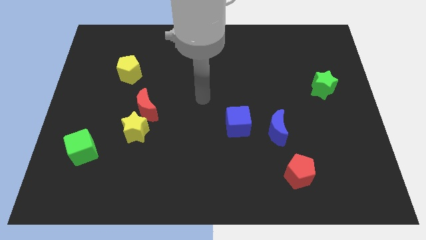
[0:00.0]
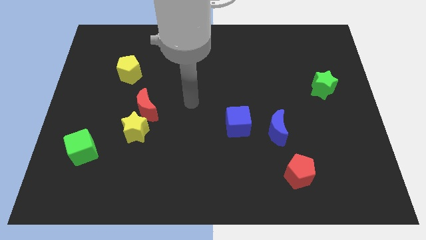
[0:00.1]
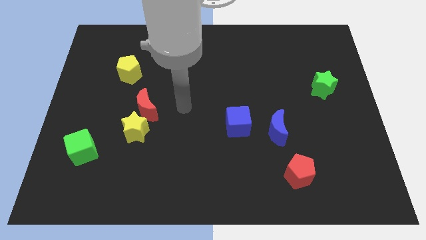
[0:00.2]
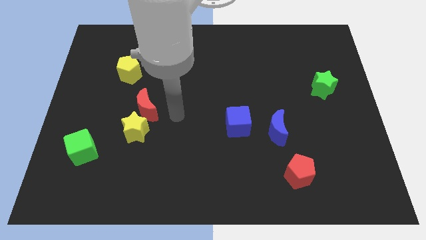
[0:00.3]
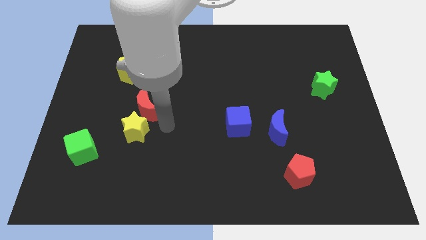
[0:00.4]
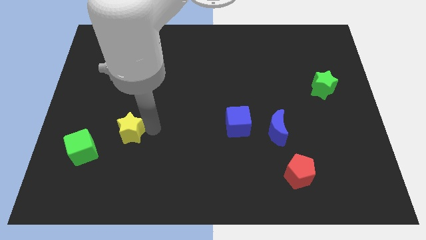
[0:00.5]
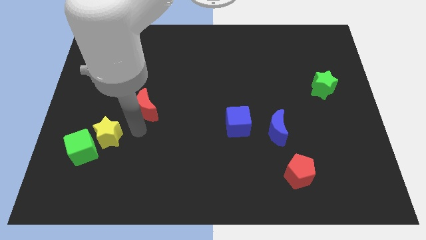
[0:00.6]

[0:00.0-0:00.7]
pull the red moon apart from the yellow star

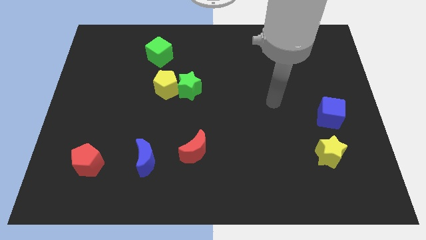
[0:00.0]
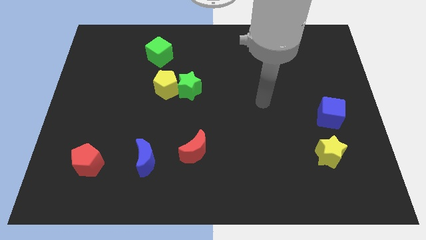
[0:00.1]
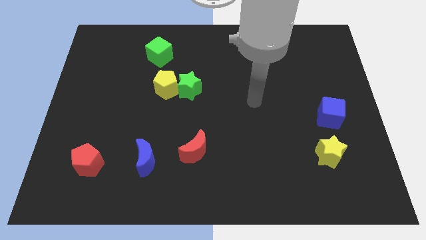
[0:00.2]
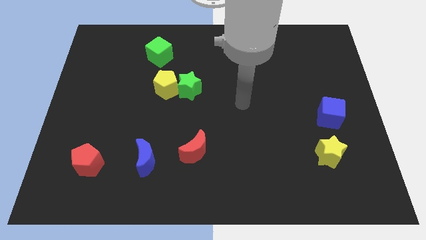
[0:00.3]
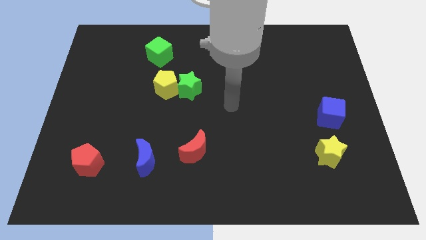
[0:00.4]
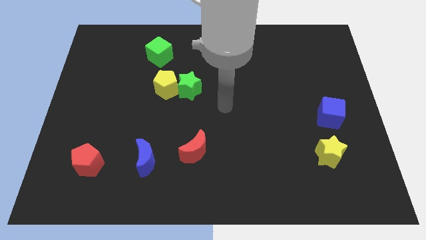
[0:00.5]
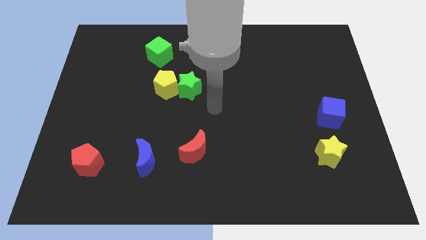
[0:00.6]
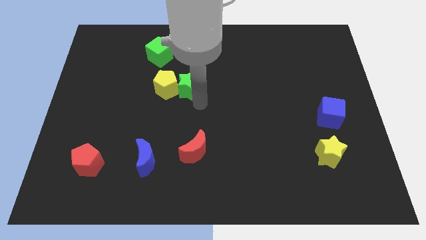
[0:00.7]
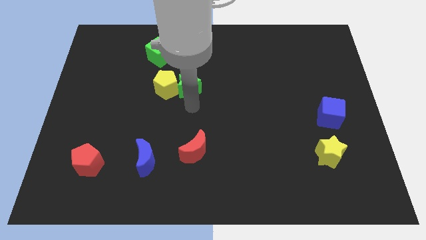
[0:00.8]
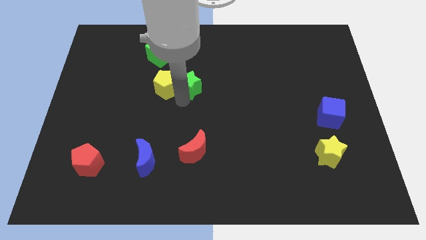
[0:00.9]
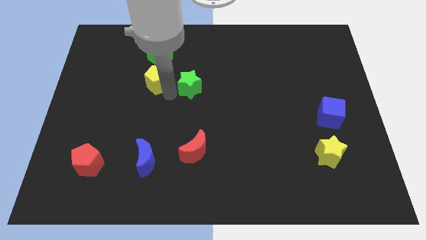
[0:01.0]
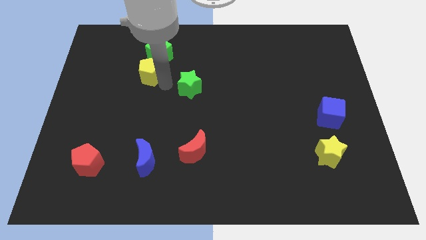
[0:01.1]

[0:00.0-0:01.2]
move the green star away from the yellow pentagon

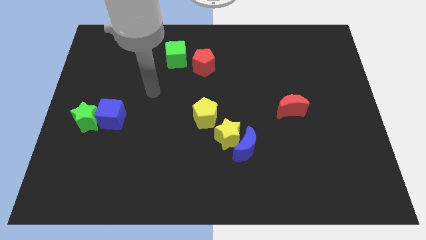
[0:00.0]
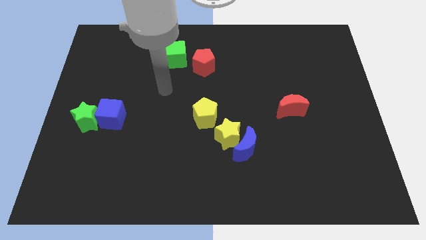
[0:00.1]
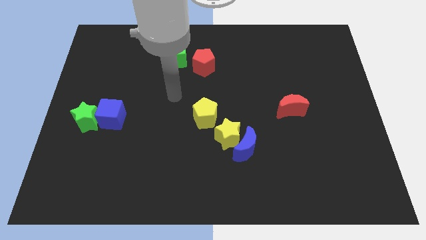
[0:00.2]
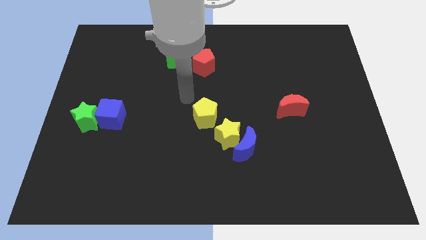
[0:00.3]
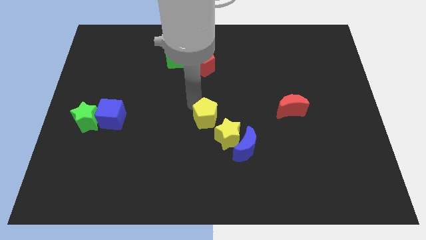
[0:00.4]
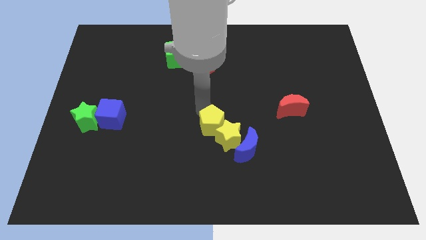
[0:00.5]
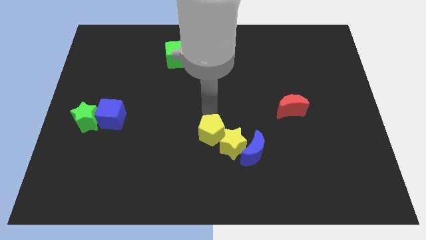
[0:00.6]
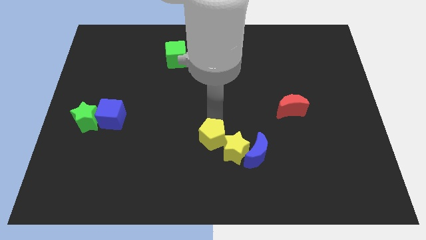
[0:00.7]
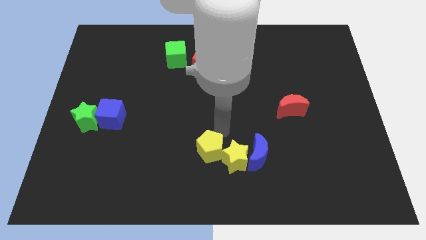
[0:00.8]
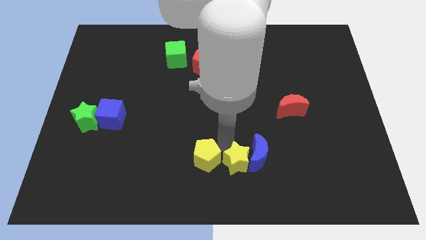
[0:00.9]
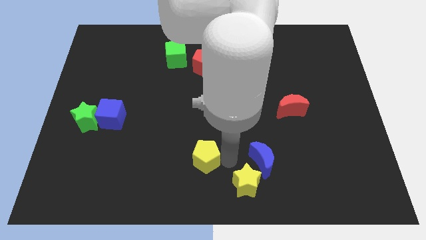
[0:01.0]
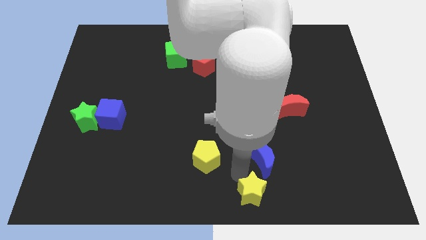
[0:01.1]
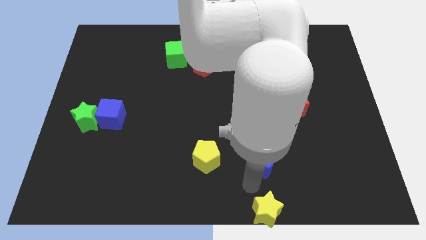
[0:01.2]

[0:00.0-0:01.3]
move the blue moon away from the yellow star

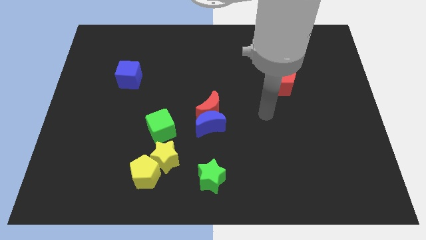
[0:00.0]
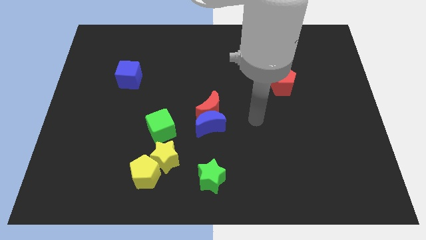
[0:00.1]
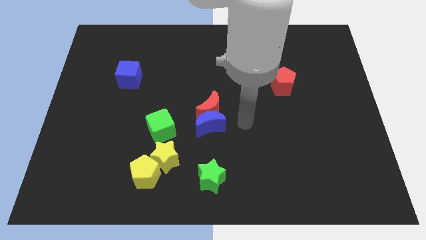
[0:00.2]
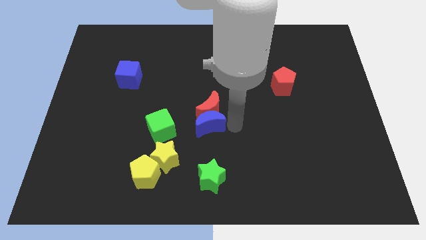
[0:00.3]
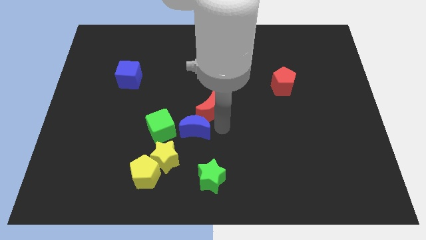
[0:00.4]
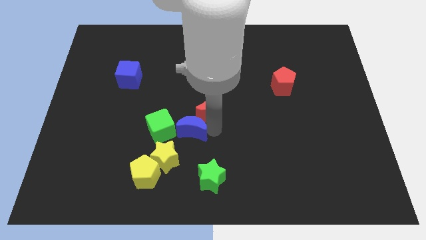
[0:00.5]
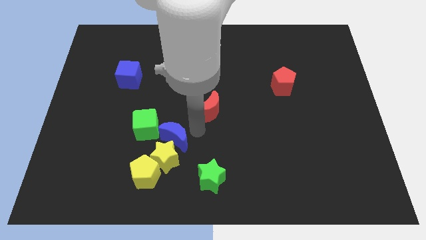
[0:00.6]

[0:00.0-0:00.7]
move the red moon away from the blue moon

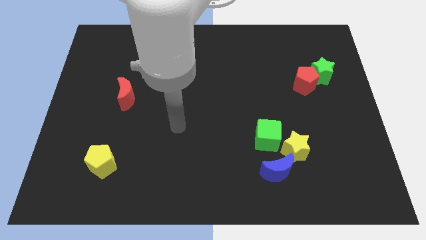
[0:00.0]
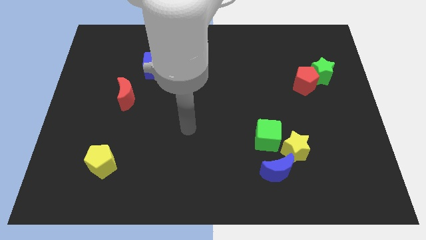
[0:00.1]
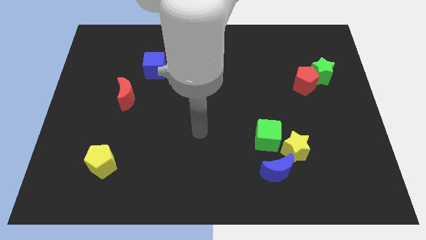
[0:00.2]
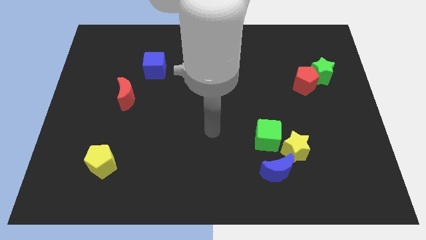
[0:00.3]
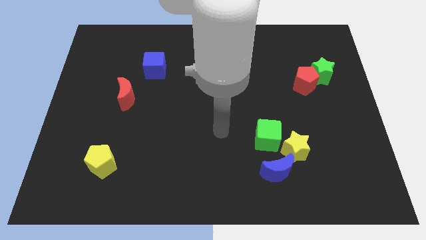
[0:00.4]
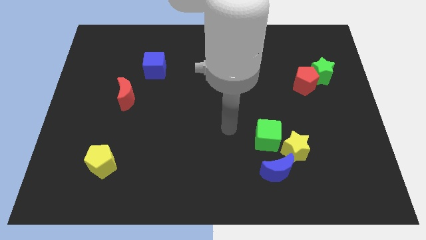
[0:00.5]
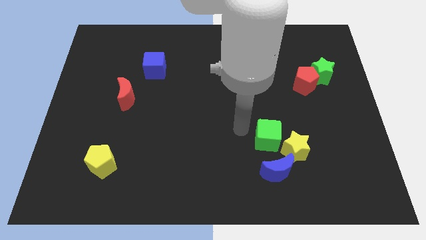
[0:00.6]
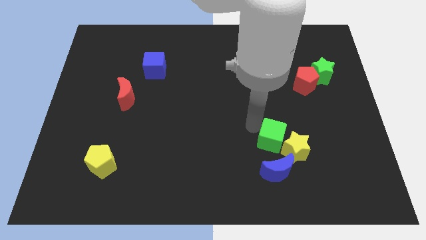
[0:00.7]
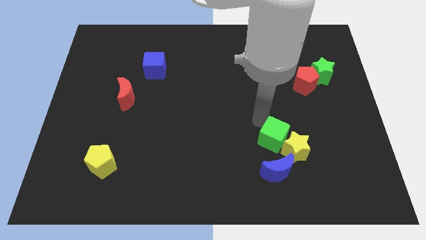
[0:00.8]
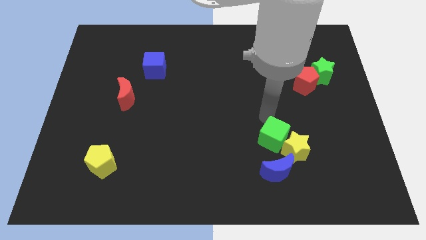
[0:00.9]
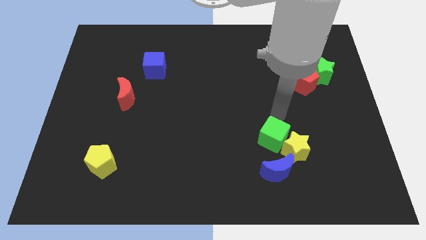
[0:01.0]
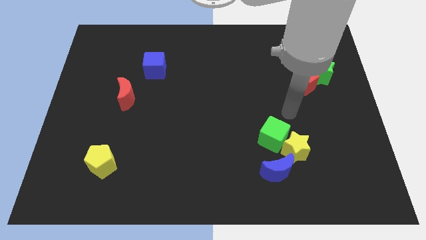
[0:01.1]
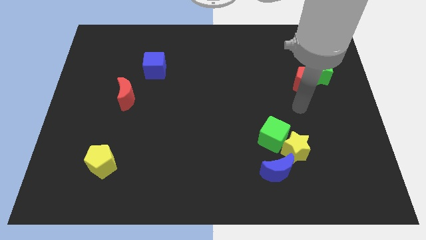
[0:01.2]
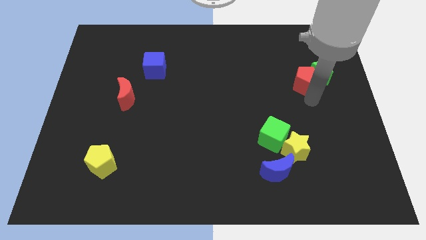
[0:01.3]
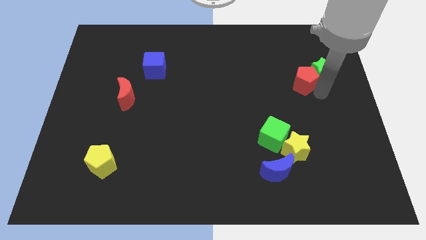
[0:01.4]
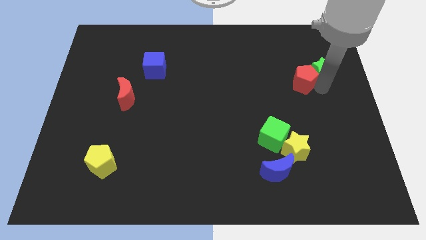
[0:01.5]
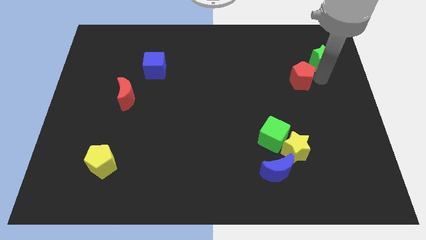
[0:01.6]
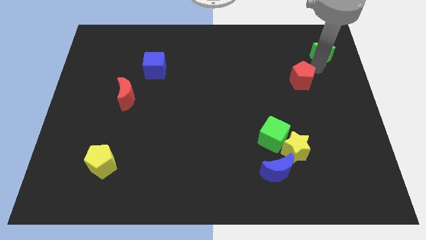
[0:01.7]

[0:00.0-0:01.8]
move the red pentagon away from the green star

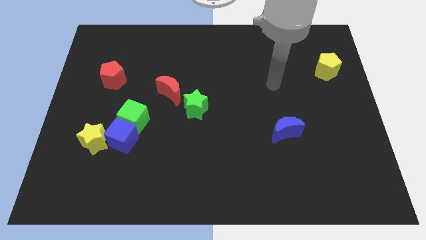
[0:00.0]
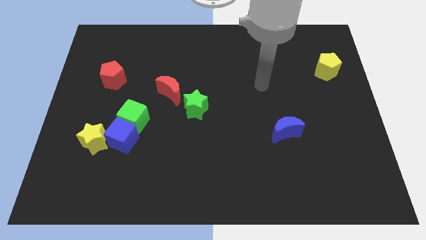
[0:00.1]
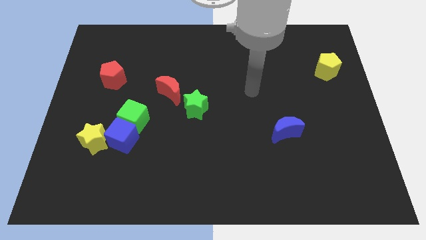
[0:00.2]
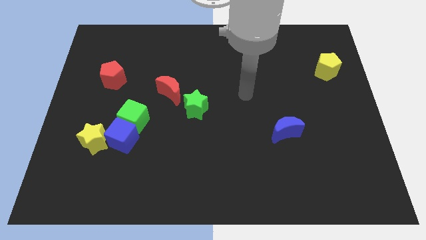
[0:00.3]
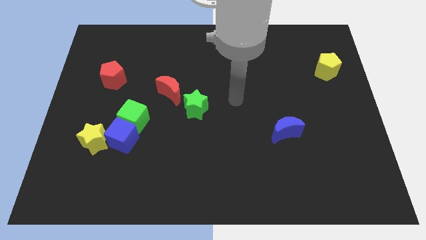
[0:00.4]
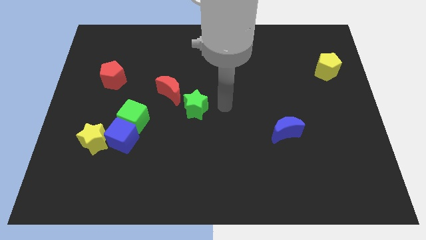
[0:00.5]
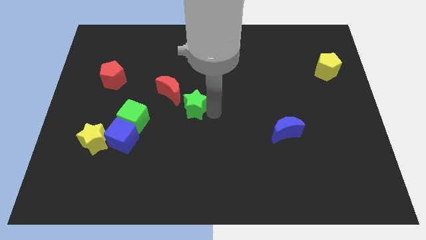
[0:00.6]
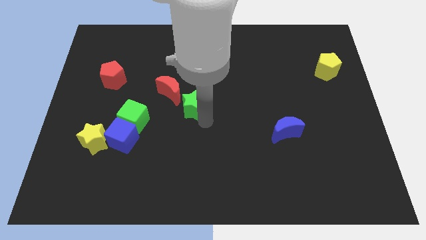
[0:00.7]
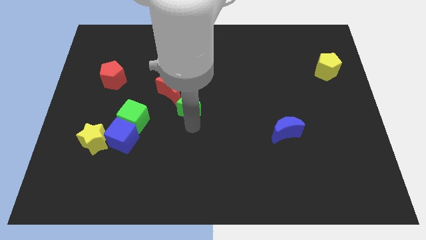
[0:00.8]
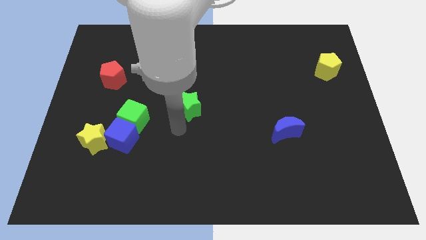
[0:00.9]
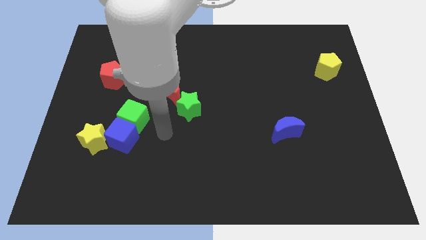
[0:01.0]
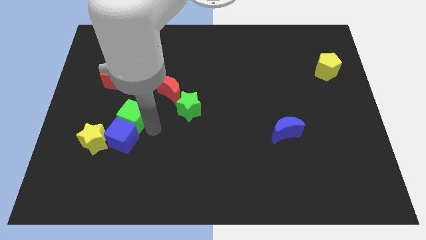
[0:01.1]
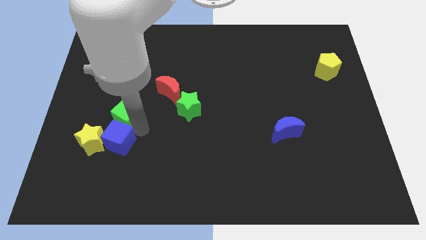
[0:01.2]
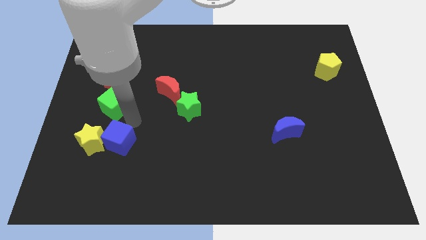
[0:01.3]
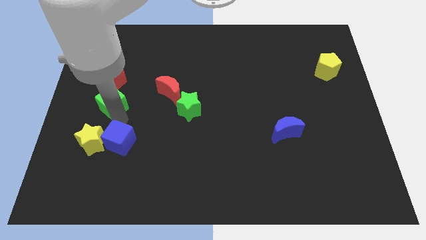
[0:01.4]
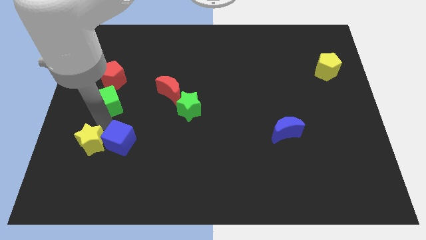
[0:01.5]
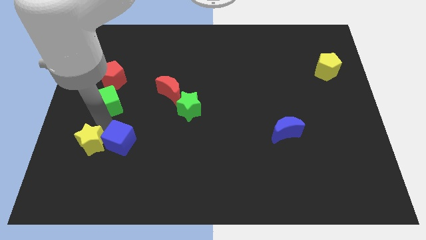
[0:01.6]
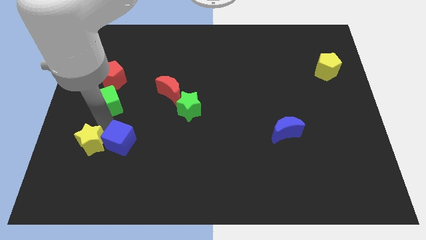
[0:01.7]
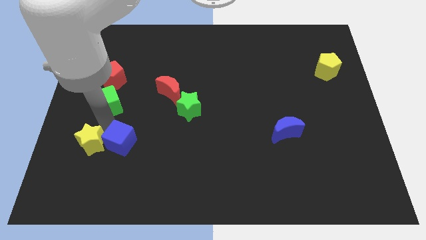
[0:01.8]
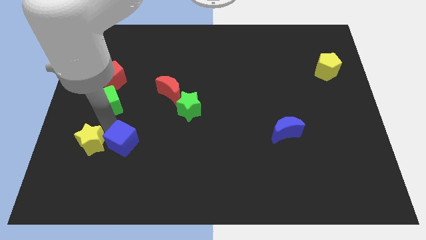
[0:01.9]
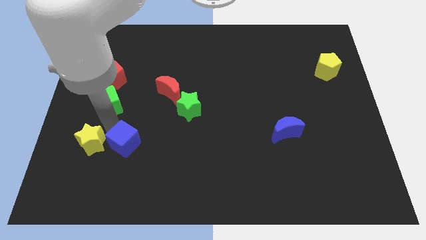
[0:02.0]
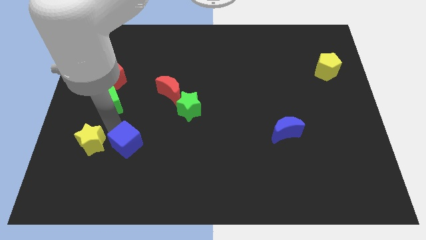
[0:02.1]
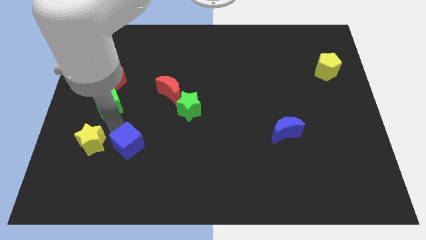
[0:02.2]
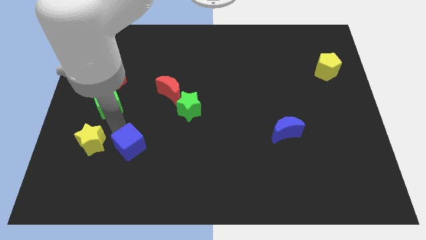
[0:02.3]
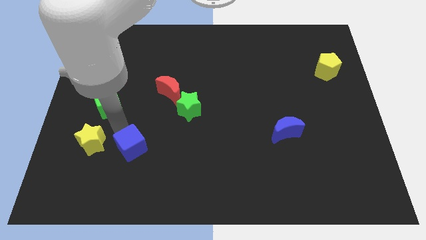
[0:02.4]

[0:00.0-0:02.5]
separate the blue cube from the green cube and yellow star

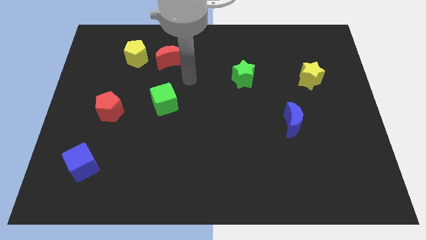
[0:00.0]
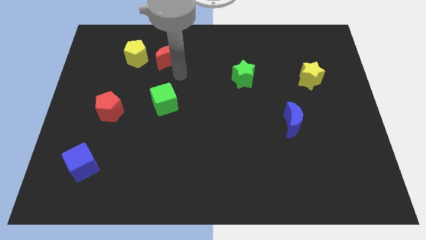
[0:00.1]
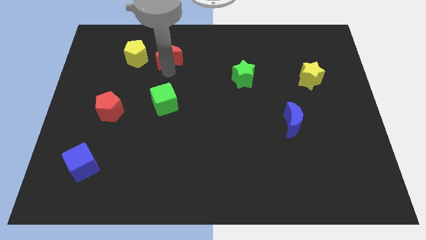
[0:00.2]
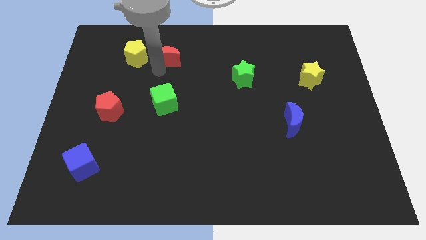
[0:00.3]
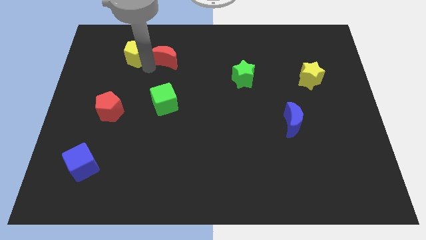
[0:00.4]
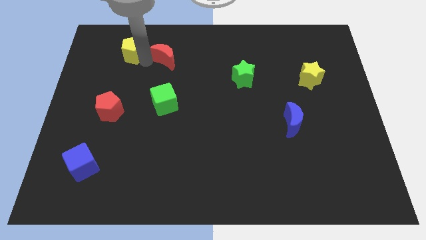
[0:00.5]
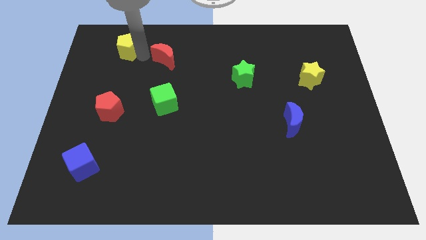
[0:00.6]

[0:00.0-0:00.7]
move the red moon away from the yellow pentagon

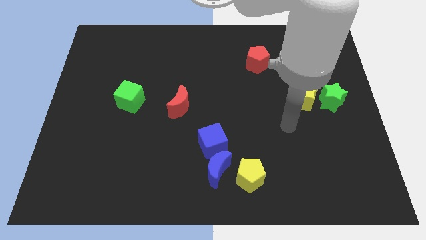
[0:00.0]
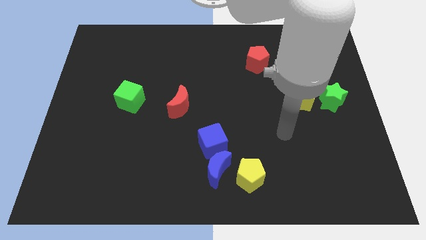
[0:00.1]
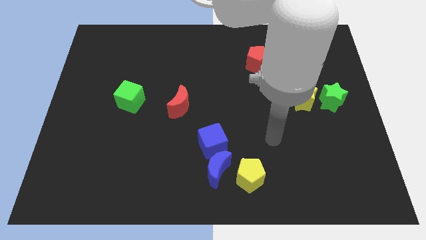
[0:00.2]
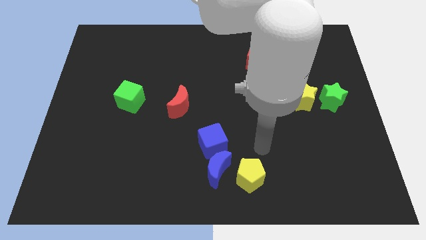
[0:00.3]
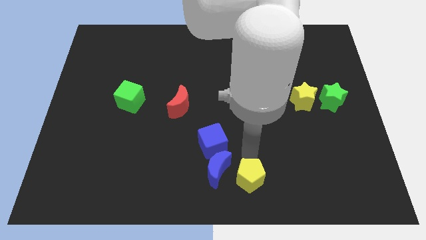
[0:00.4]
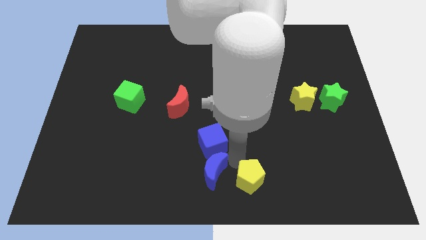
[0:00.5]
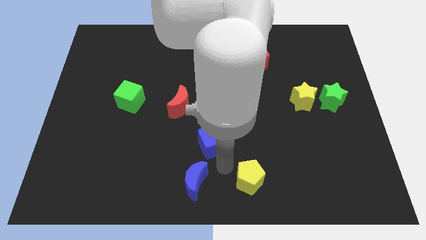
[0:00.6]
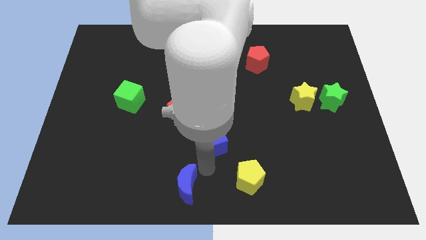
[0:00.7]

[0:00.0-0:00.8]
move the blue cube away from the blue moon
